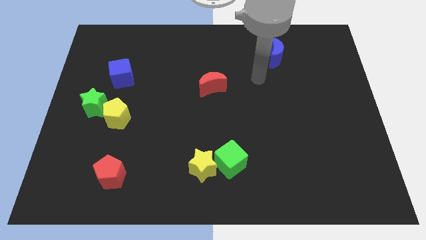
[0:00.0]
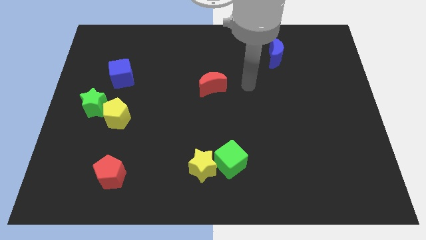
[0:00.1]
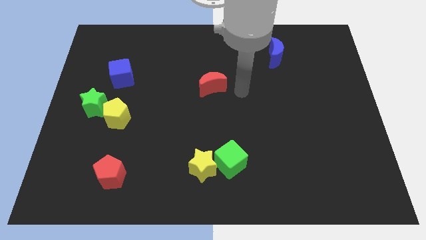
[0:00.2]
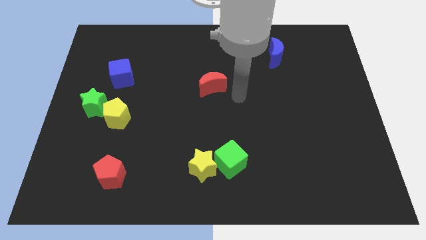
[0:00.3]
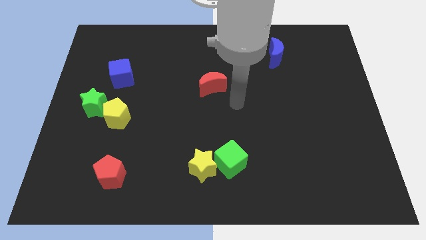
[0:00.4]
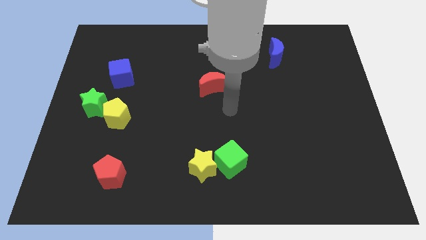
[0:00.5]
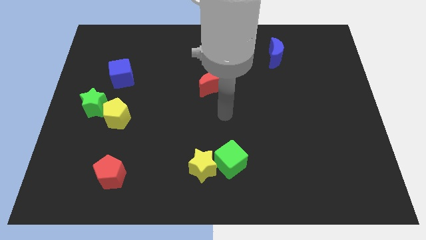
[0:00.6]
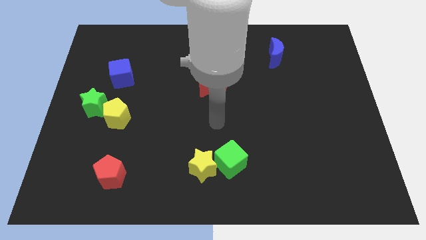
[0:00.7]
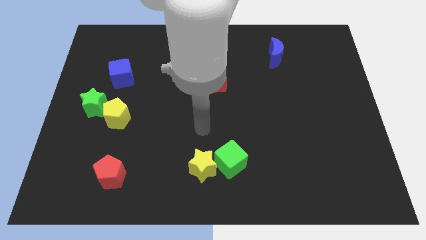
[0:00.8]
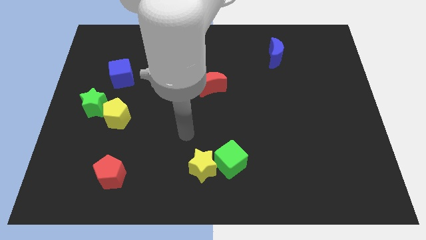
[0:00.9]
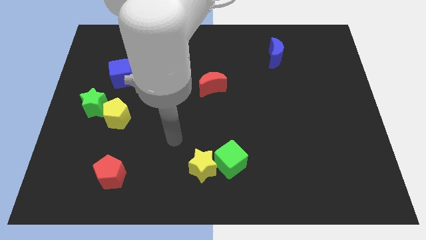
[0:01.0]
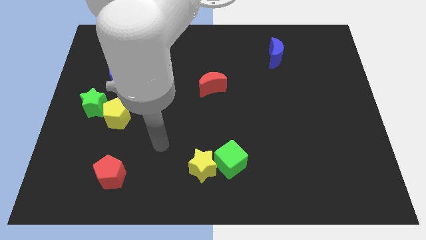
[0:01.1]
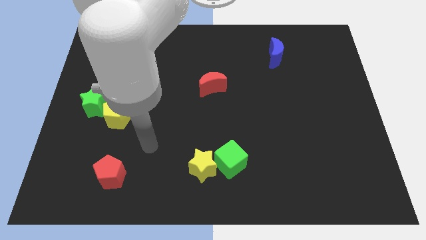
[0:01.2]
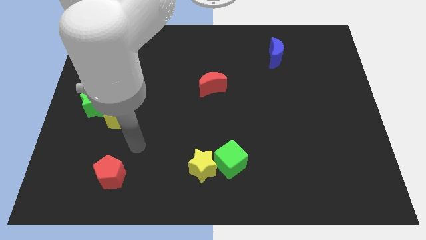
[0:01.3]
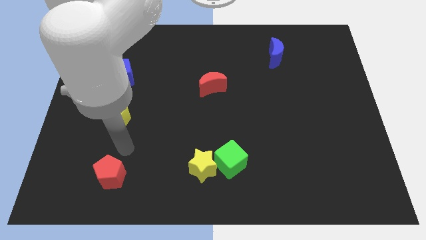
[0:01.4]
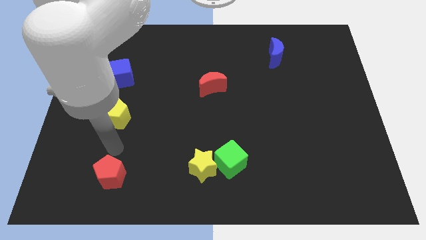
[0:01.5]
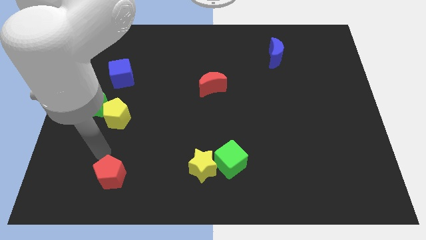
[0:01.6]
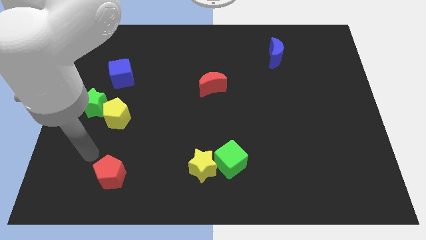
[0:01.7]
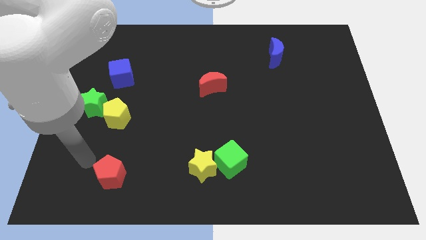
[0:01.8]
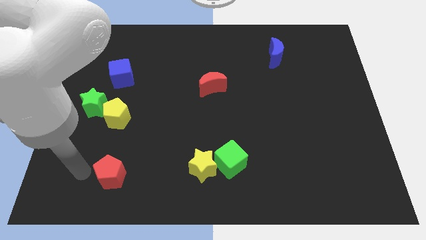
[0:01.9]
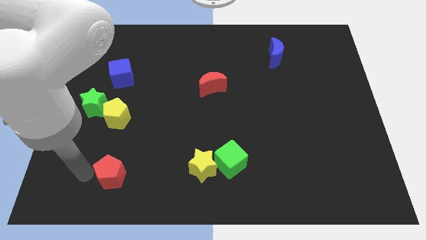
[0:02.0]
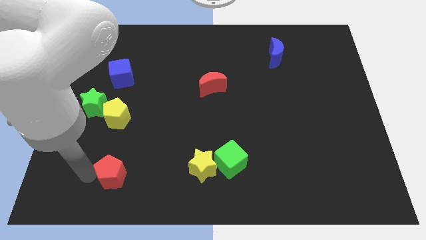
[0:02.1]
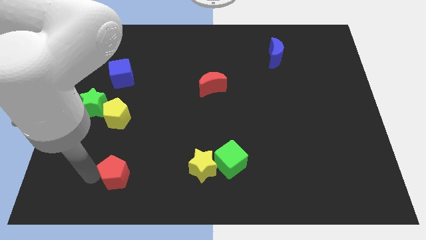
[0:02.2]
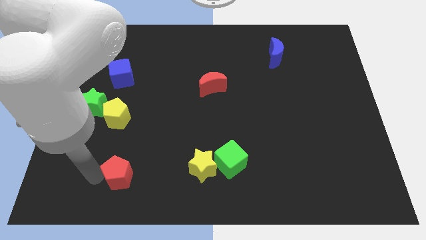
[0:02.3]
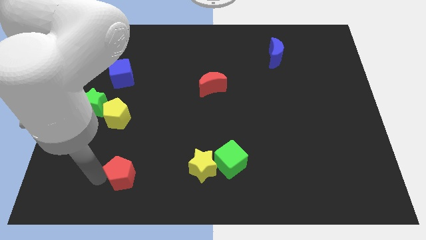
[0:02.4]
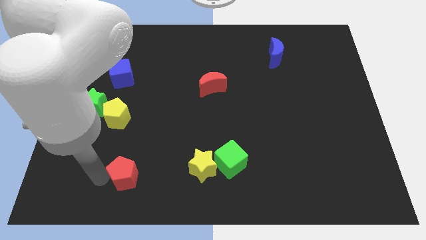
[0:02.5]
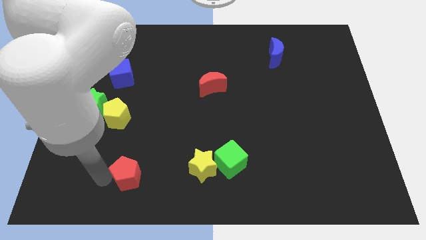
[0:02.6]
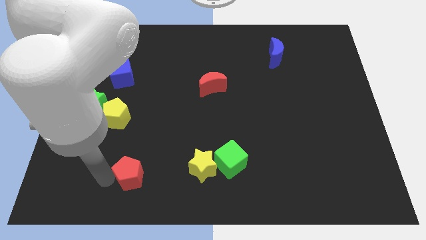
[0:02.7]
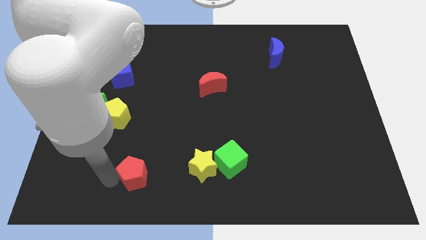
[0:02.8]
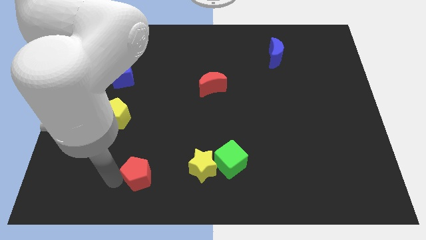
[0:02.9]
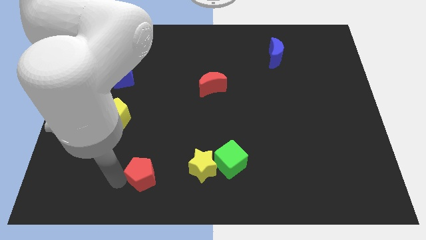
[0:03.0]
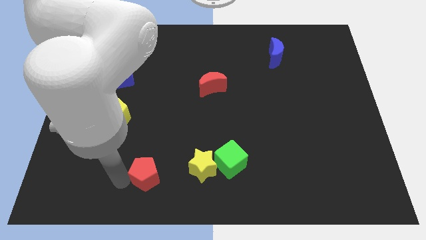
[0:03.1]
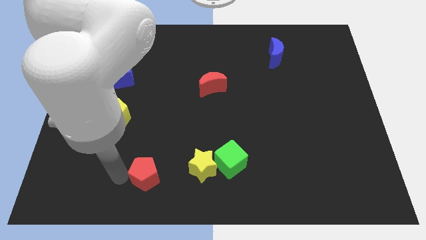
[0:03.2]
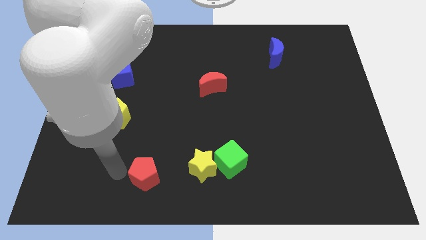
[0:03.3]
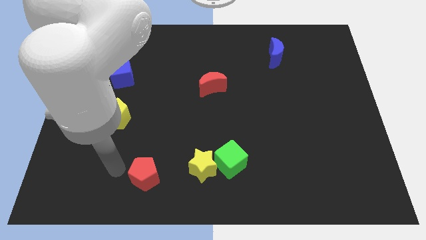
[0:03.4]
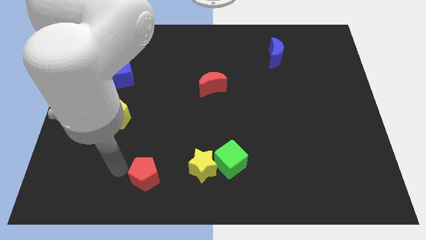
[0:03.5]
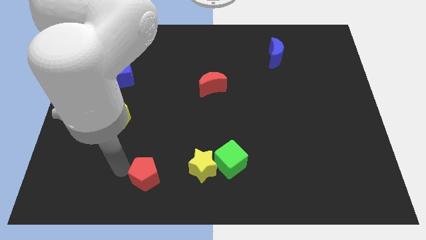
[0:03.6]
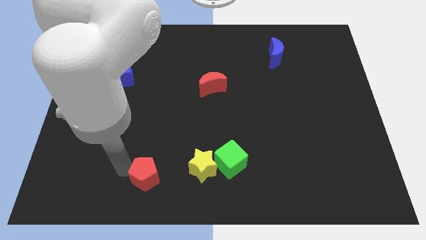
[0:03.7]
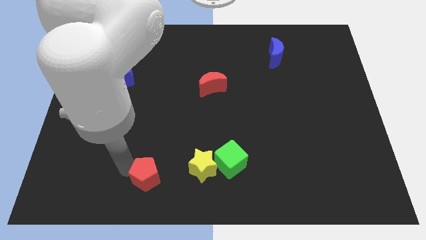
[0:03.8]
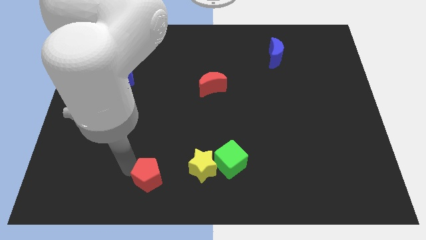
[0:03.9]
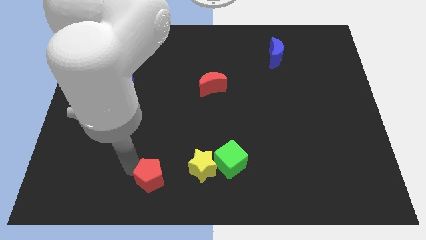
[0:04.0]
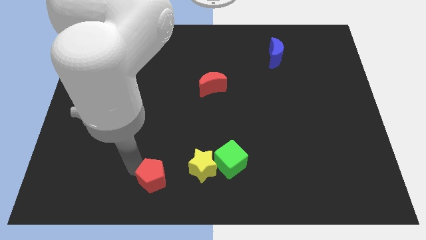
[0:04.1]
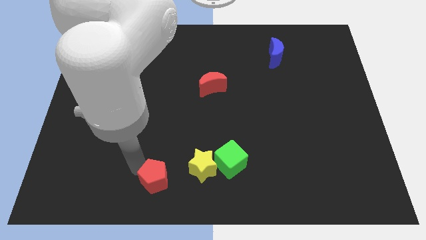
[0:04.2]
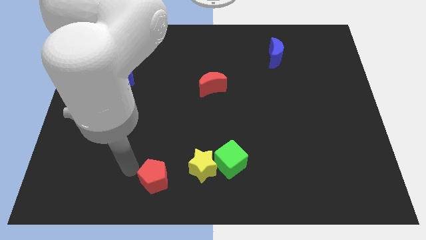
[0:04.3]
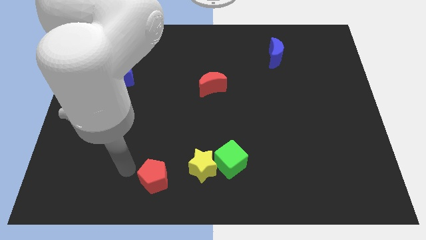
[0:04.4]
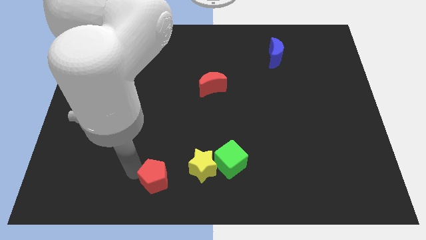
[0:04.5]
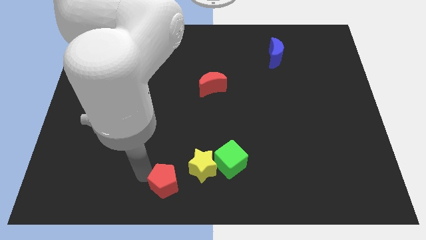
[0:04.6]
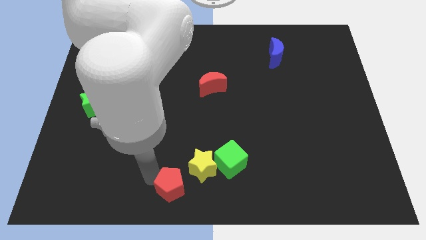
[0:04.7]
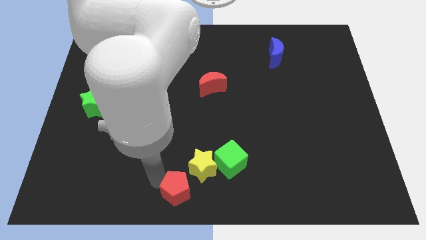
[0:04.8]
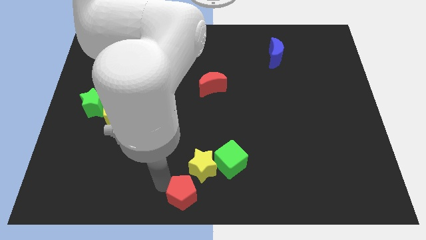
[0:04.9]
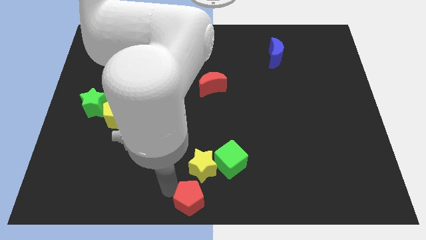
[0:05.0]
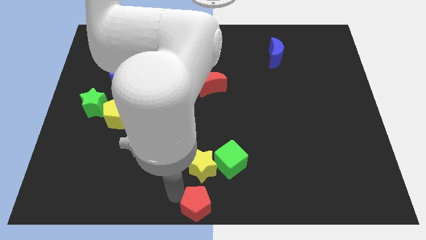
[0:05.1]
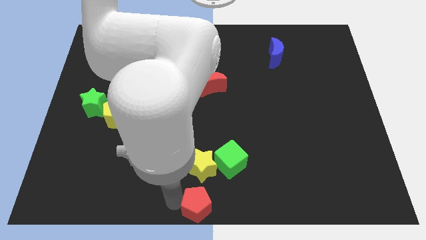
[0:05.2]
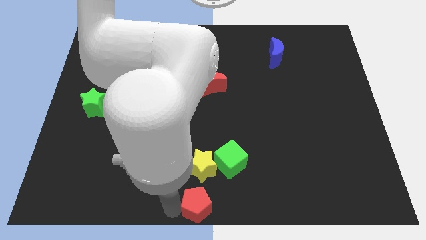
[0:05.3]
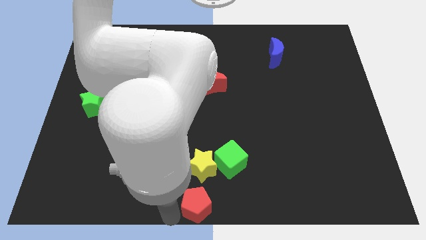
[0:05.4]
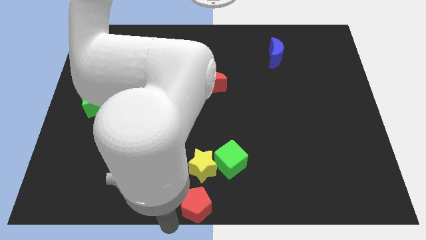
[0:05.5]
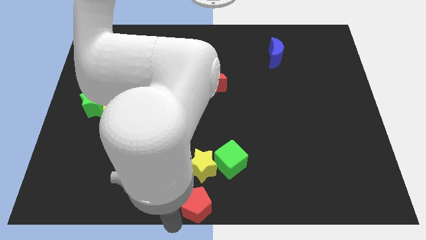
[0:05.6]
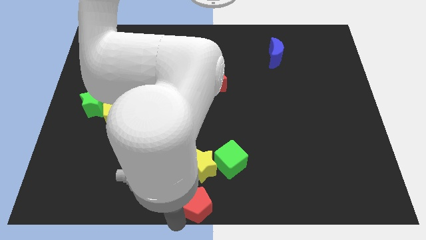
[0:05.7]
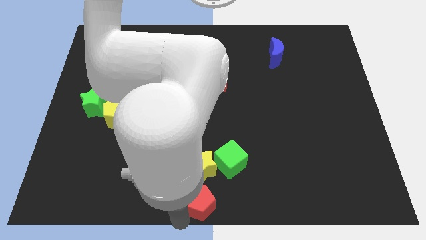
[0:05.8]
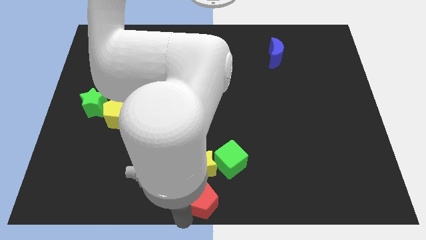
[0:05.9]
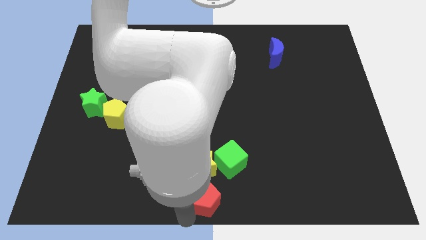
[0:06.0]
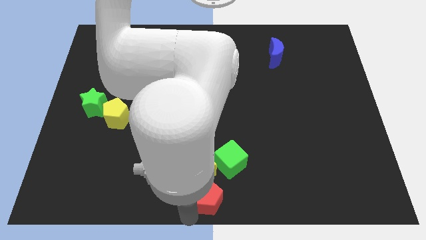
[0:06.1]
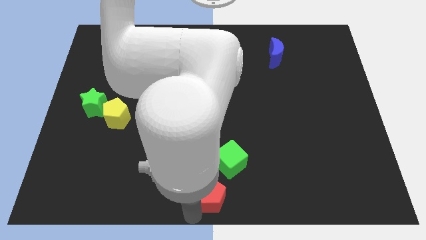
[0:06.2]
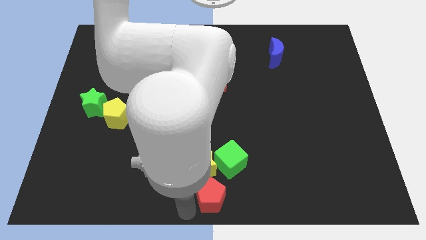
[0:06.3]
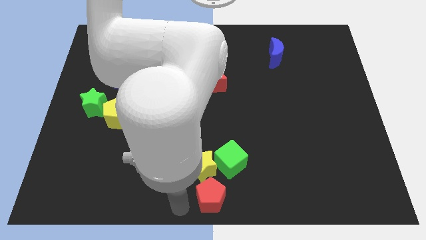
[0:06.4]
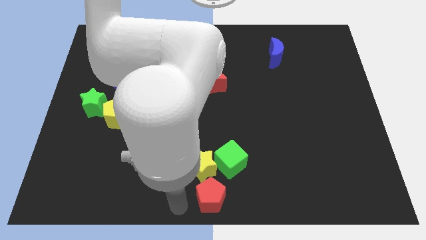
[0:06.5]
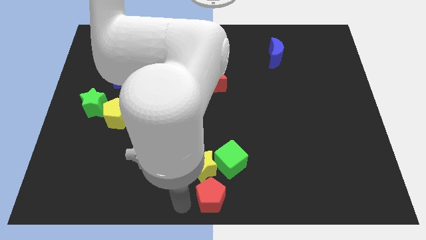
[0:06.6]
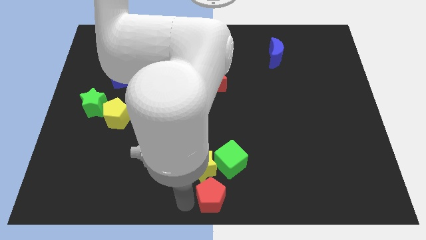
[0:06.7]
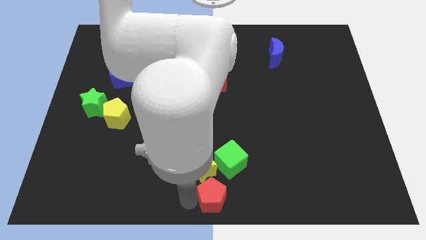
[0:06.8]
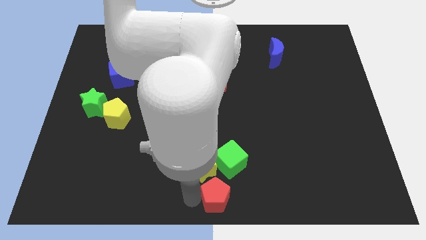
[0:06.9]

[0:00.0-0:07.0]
slide the red pentagon right

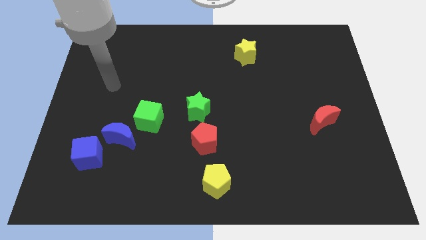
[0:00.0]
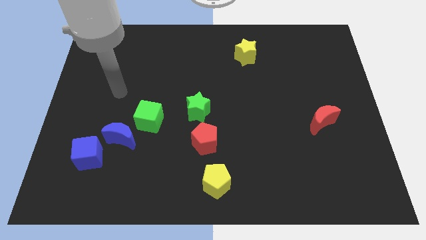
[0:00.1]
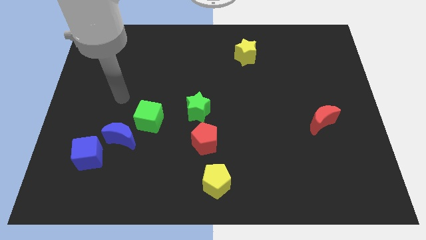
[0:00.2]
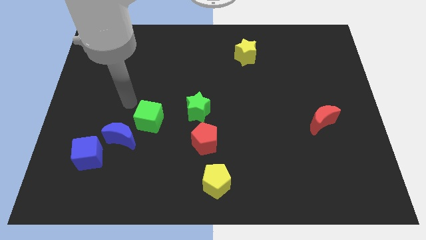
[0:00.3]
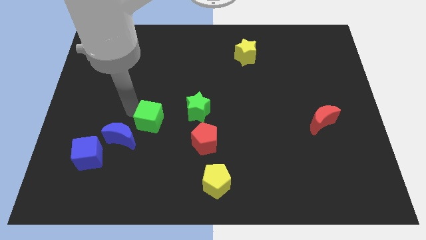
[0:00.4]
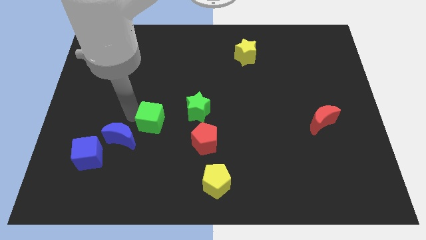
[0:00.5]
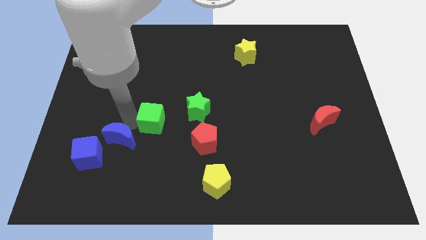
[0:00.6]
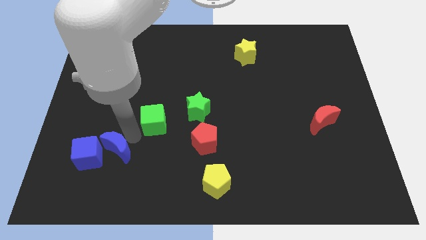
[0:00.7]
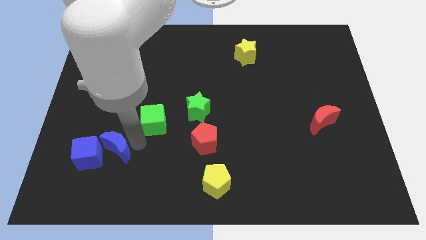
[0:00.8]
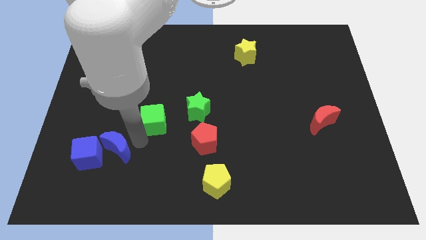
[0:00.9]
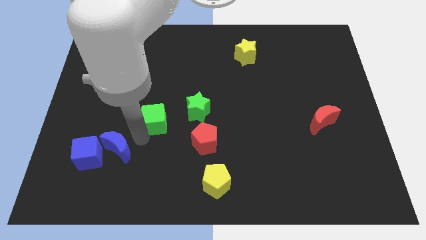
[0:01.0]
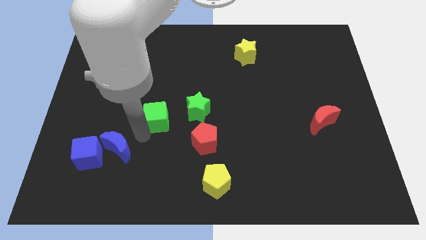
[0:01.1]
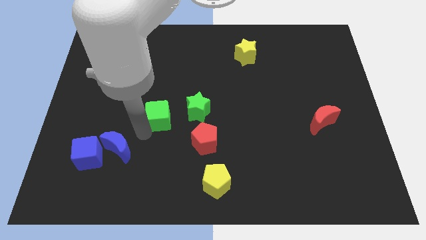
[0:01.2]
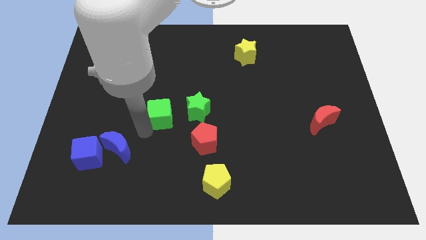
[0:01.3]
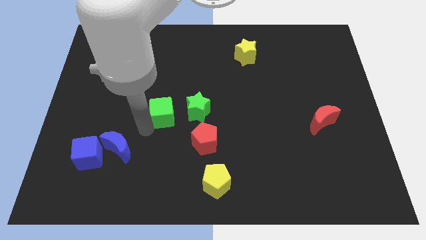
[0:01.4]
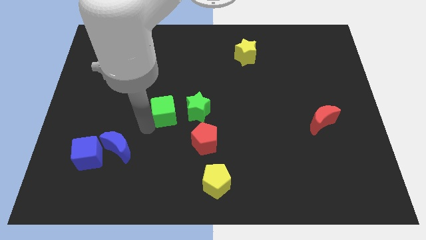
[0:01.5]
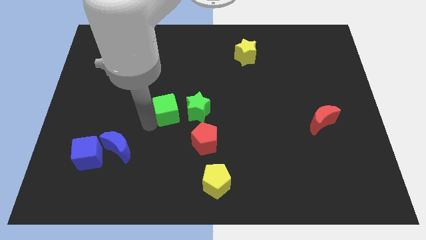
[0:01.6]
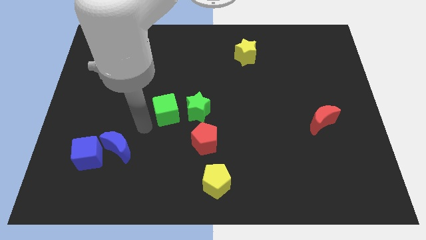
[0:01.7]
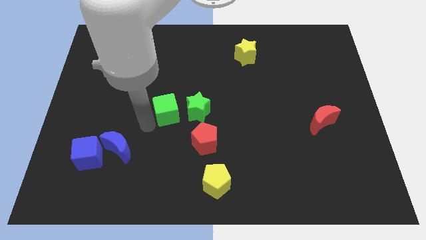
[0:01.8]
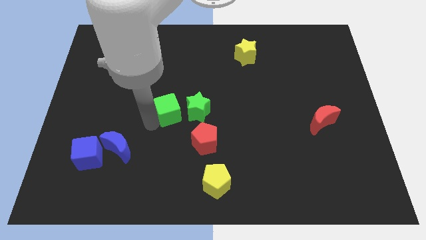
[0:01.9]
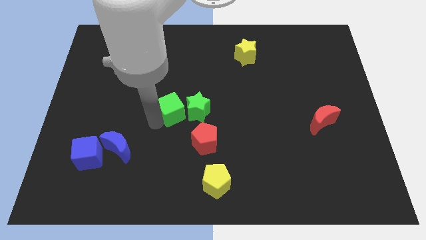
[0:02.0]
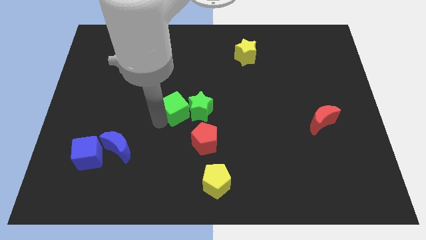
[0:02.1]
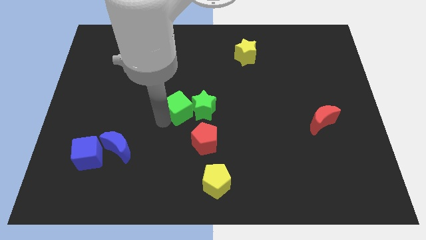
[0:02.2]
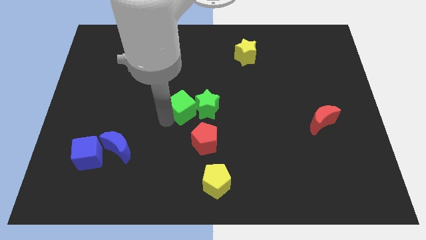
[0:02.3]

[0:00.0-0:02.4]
push the green cube right a little
